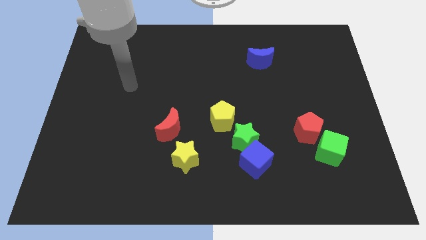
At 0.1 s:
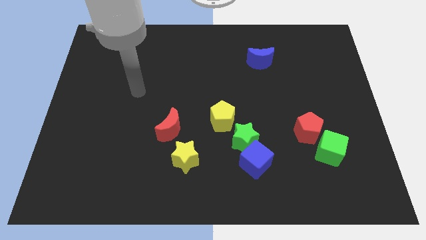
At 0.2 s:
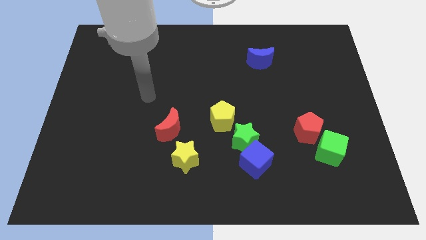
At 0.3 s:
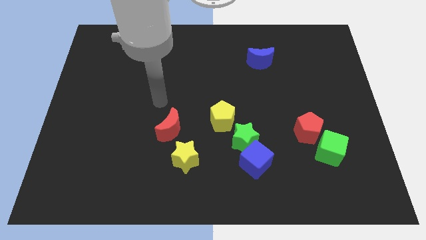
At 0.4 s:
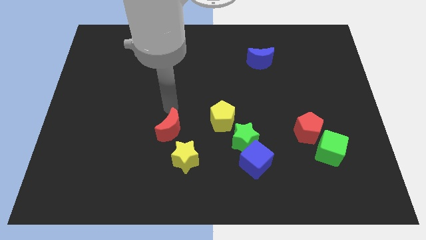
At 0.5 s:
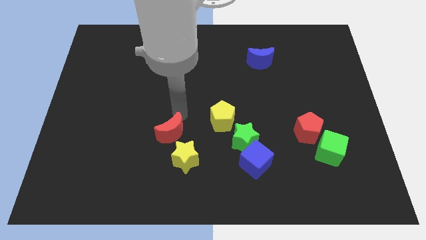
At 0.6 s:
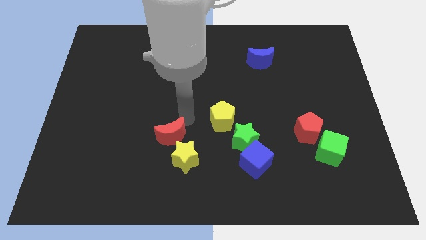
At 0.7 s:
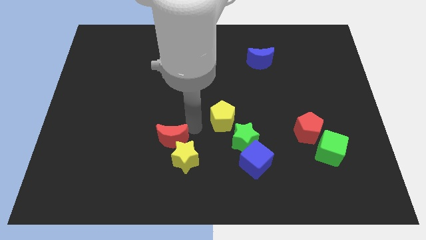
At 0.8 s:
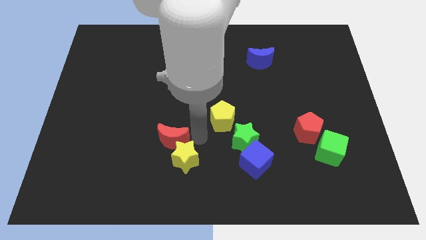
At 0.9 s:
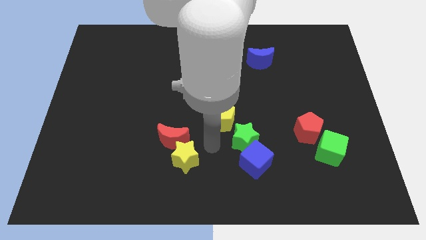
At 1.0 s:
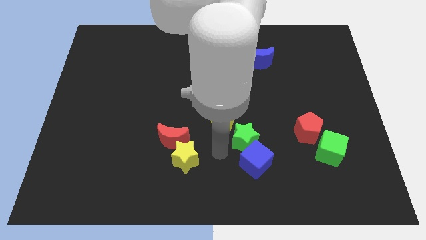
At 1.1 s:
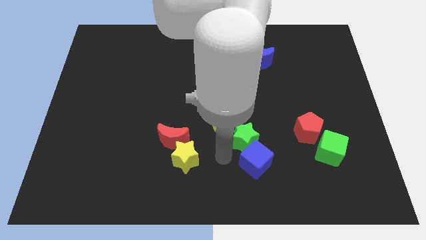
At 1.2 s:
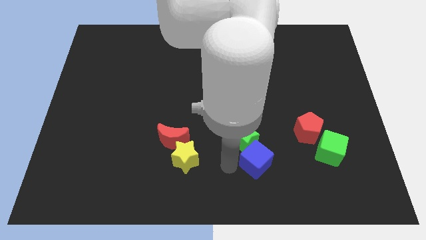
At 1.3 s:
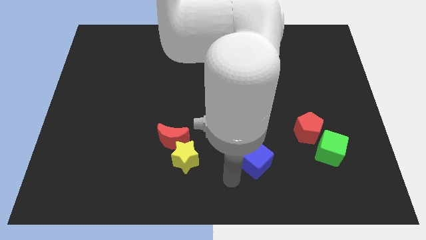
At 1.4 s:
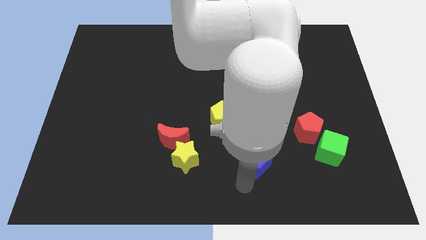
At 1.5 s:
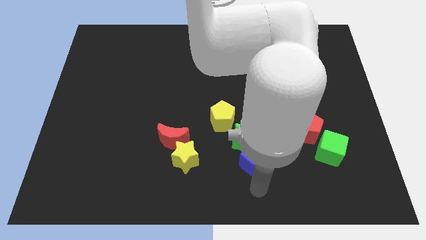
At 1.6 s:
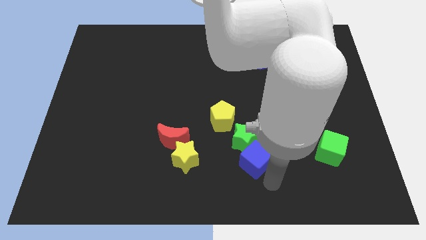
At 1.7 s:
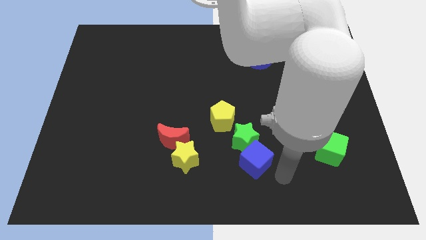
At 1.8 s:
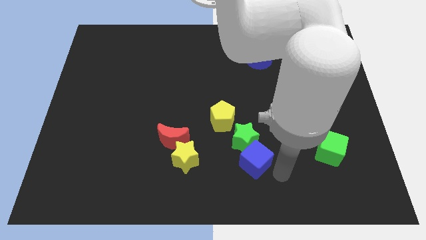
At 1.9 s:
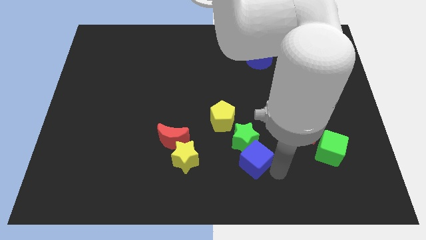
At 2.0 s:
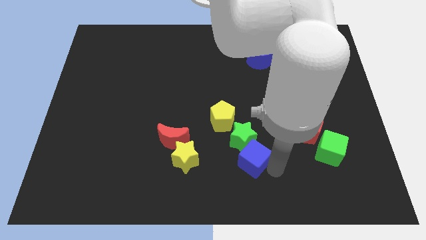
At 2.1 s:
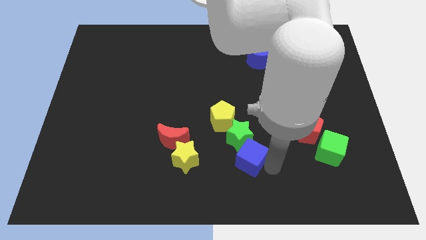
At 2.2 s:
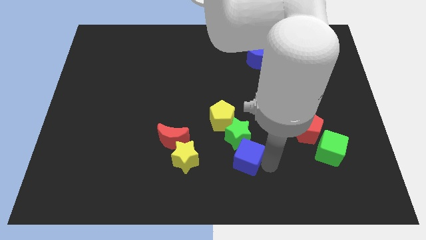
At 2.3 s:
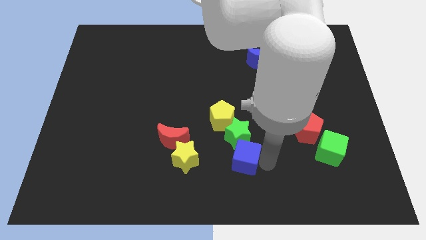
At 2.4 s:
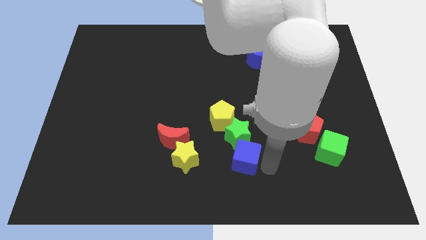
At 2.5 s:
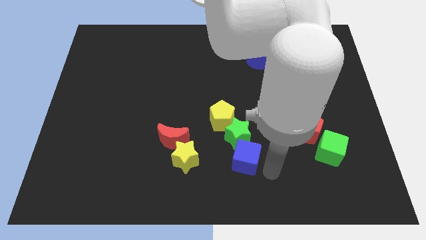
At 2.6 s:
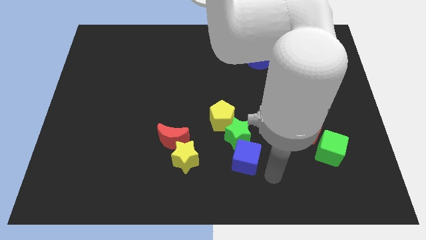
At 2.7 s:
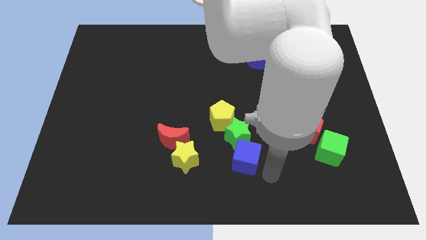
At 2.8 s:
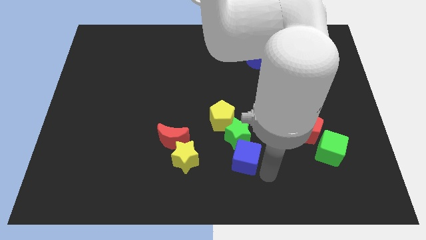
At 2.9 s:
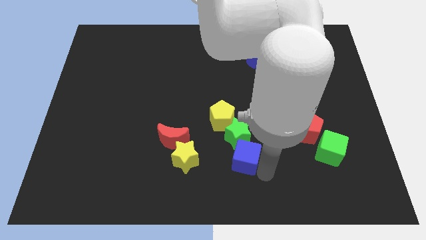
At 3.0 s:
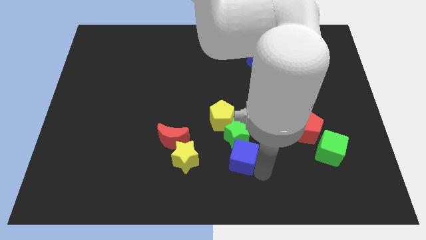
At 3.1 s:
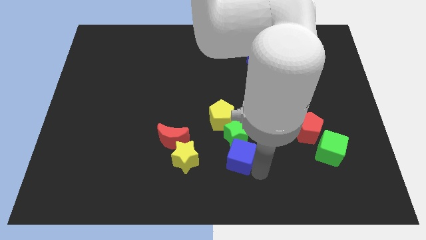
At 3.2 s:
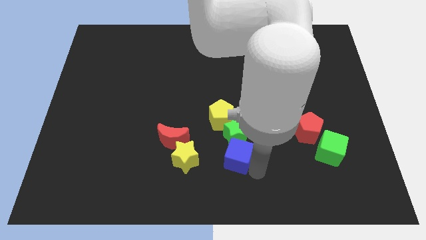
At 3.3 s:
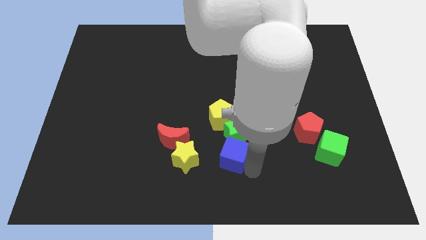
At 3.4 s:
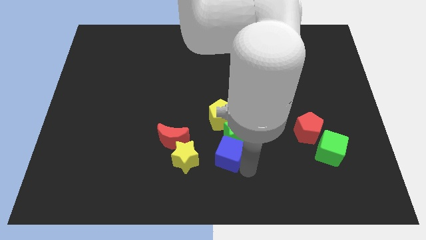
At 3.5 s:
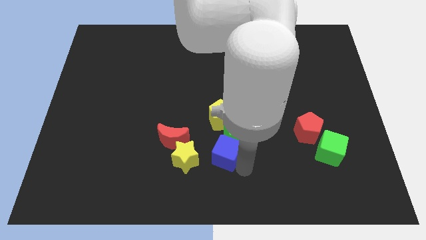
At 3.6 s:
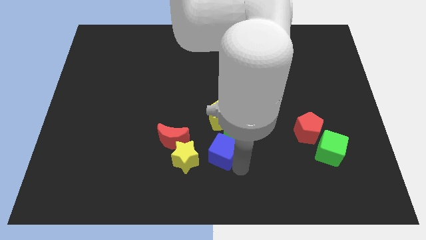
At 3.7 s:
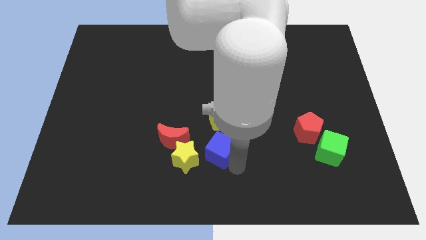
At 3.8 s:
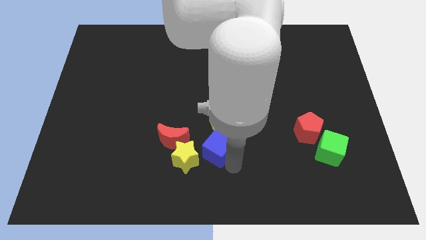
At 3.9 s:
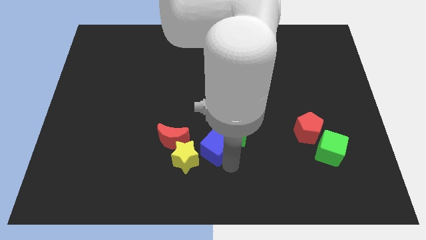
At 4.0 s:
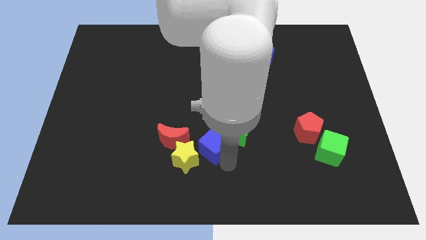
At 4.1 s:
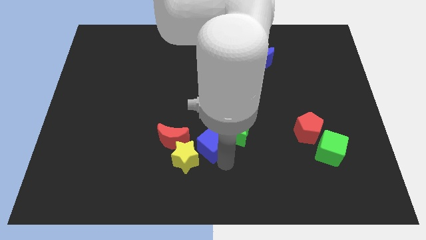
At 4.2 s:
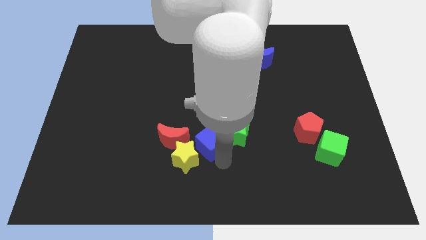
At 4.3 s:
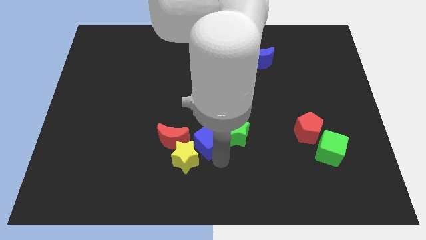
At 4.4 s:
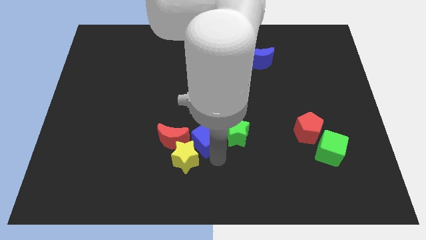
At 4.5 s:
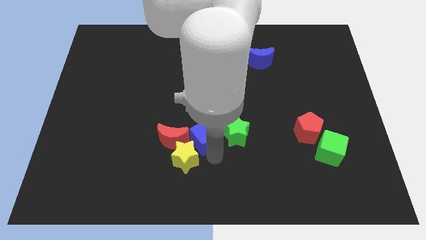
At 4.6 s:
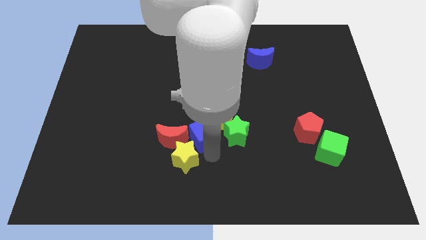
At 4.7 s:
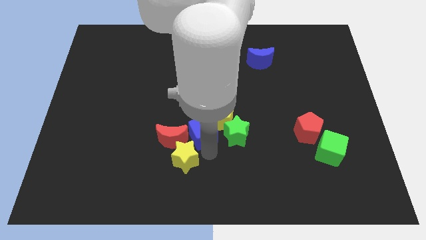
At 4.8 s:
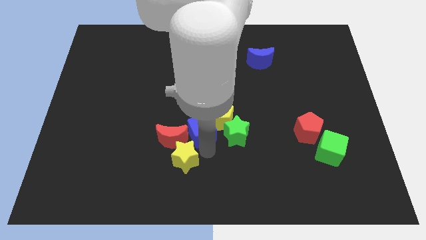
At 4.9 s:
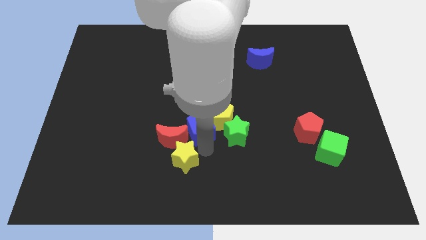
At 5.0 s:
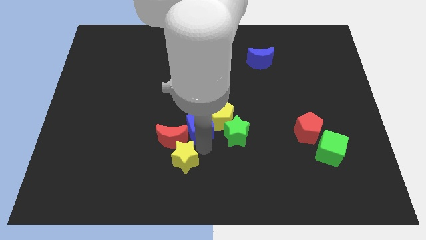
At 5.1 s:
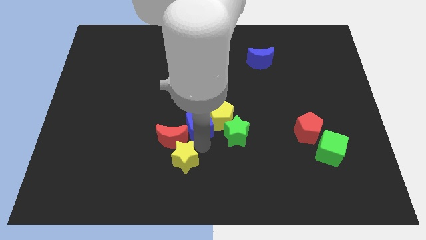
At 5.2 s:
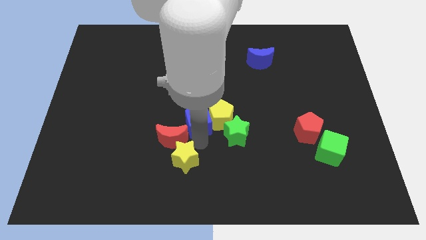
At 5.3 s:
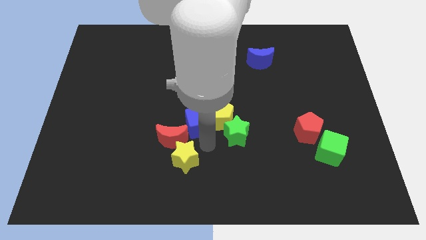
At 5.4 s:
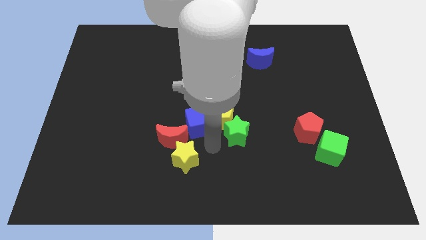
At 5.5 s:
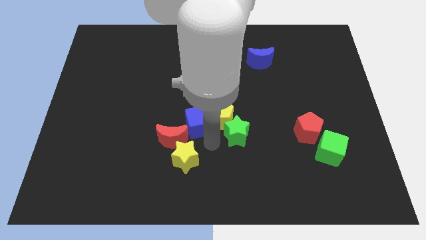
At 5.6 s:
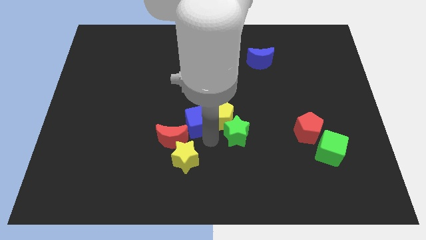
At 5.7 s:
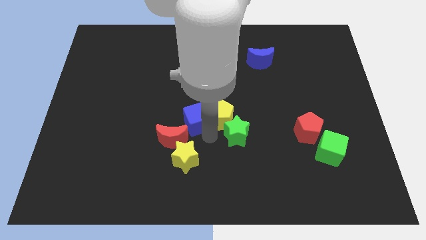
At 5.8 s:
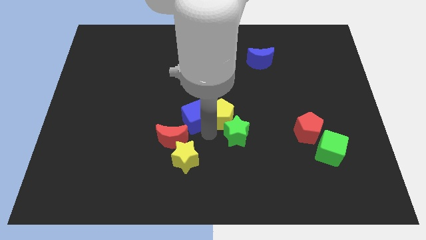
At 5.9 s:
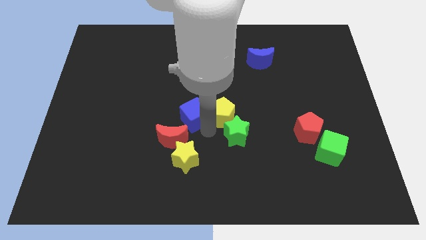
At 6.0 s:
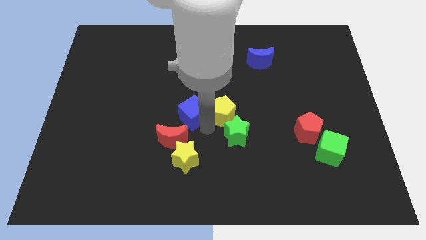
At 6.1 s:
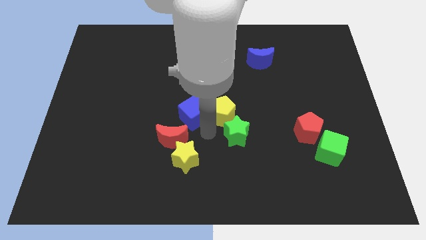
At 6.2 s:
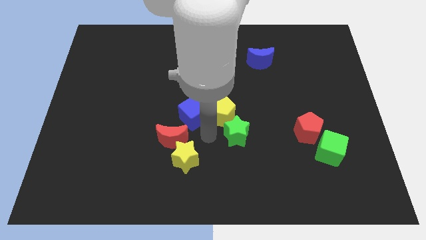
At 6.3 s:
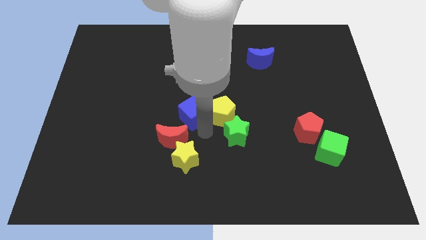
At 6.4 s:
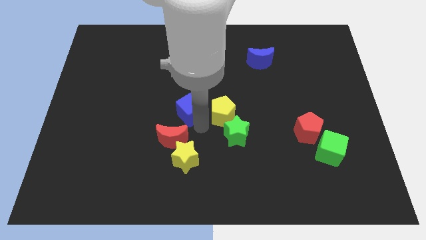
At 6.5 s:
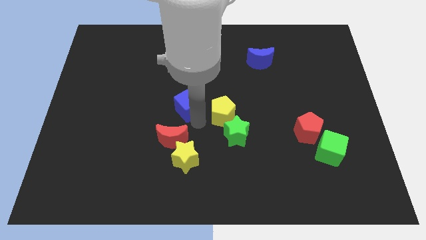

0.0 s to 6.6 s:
push the blue cube up and to the left diagonally

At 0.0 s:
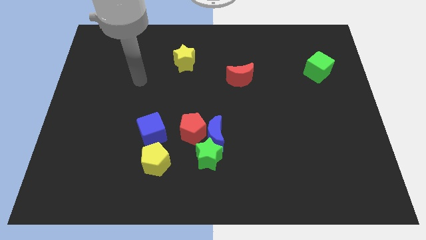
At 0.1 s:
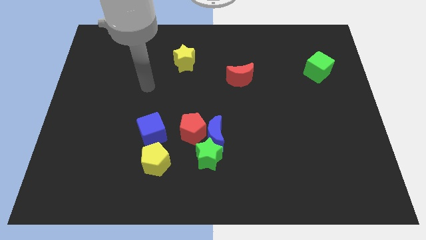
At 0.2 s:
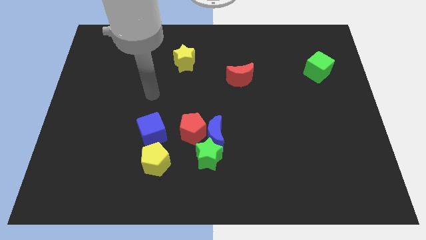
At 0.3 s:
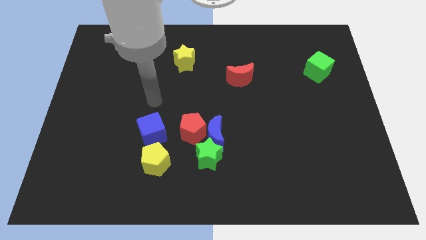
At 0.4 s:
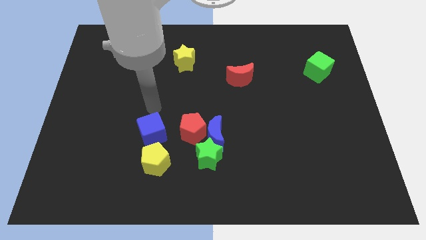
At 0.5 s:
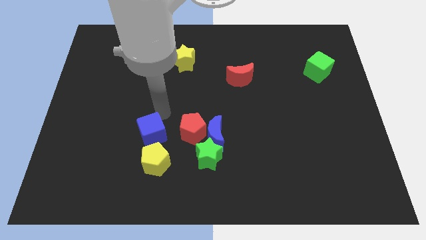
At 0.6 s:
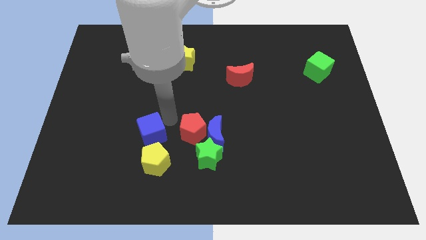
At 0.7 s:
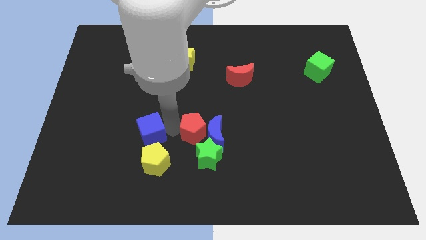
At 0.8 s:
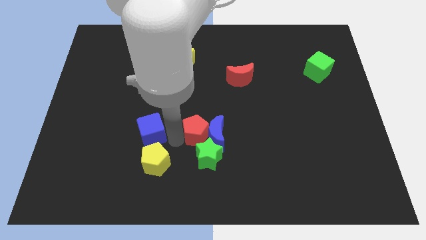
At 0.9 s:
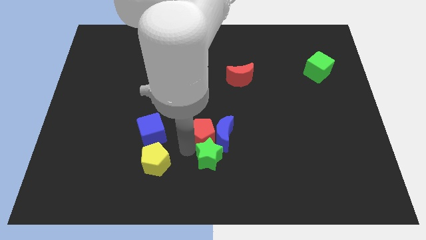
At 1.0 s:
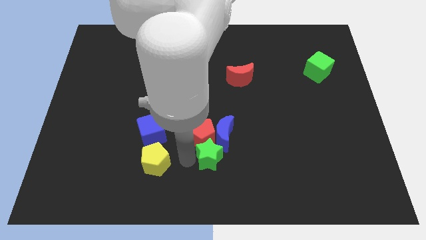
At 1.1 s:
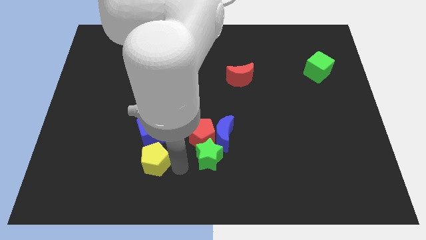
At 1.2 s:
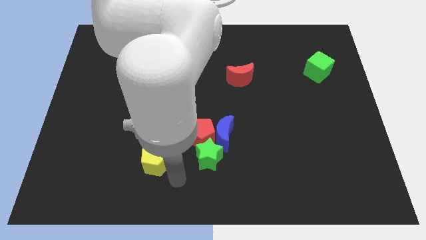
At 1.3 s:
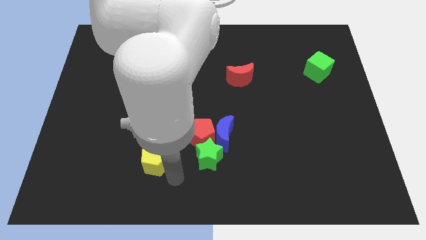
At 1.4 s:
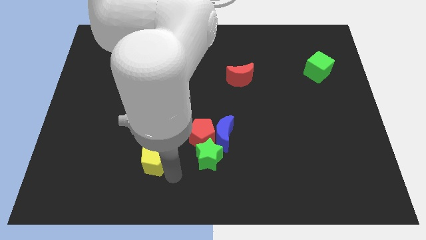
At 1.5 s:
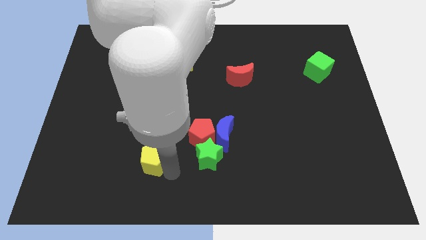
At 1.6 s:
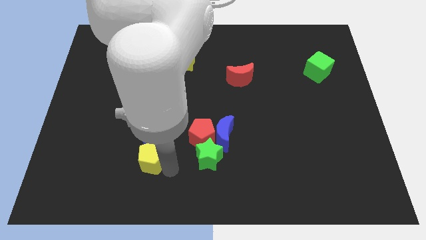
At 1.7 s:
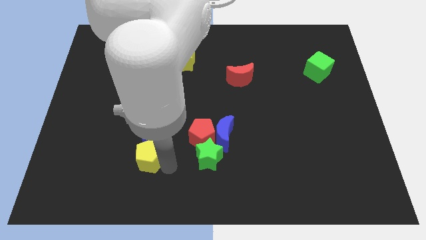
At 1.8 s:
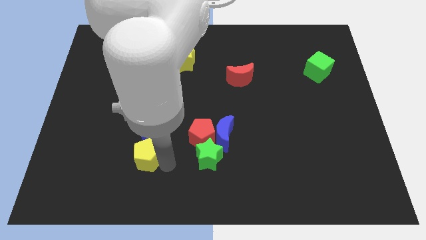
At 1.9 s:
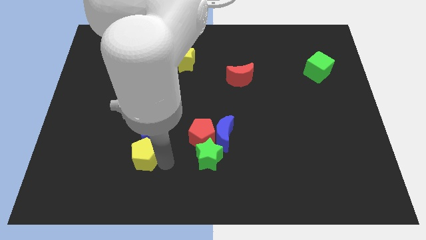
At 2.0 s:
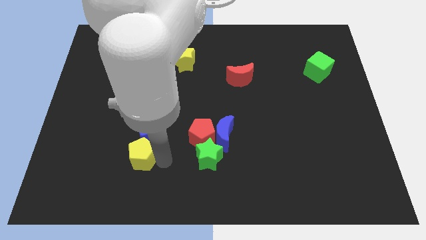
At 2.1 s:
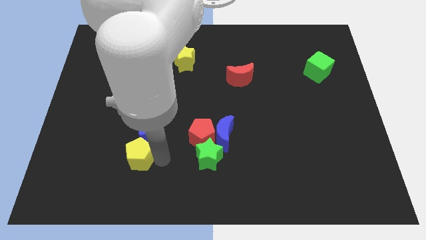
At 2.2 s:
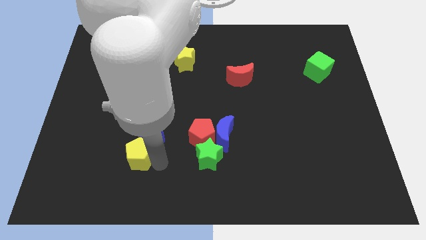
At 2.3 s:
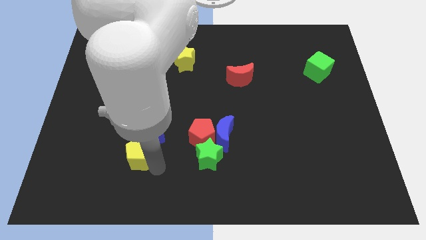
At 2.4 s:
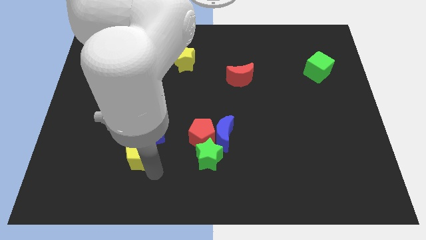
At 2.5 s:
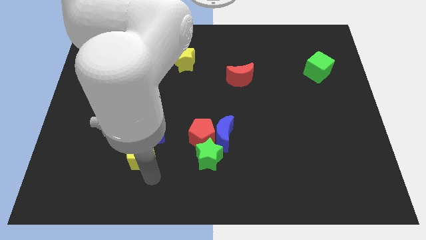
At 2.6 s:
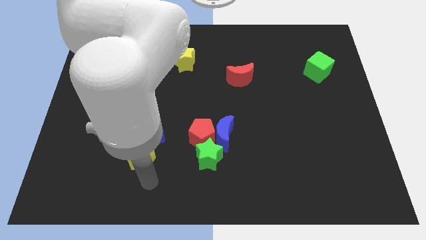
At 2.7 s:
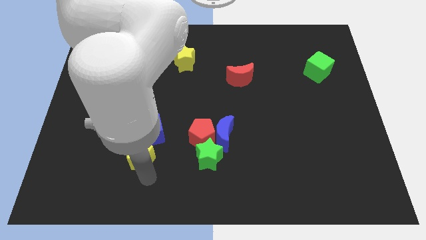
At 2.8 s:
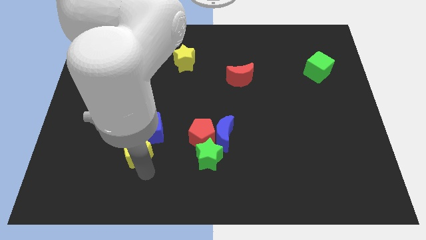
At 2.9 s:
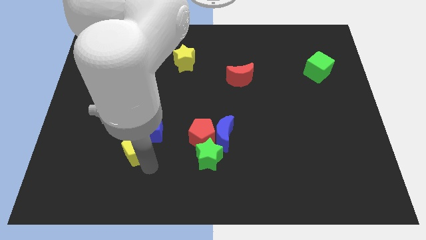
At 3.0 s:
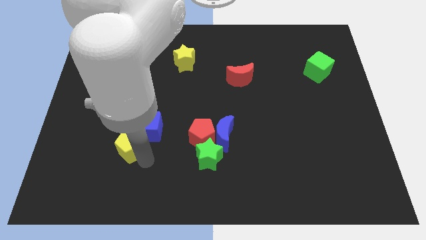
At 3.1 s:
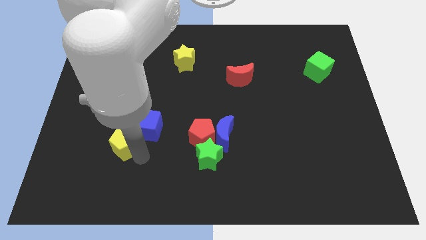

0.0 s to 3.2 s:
slide the yellow pentagon slightly up and left diagonally
